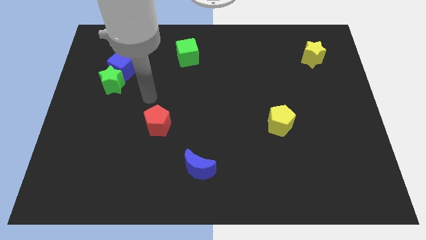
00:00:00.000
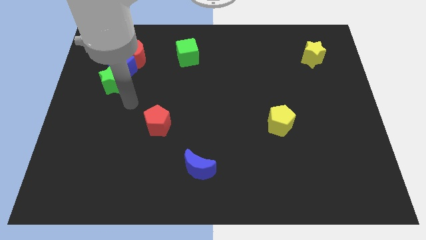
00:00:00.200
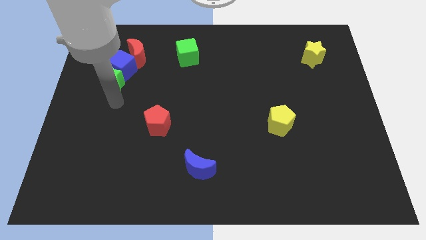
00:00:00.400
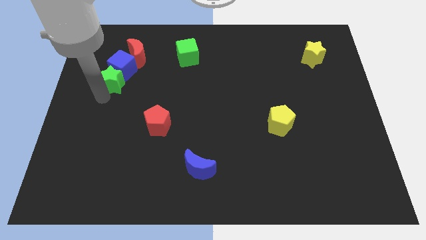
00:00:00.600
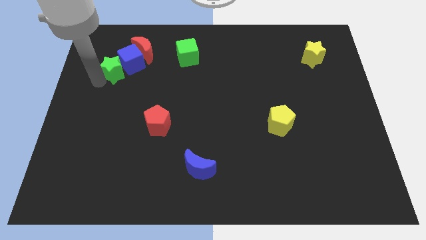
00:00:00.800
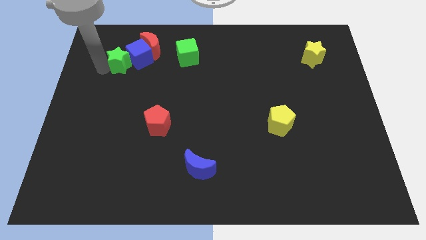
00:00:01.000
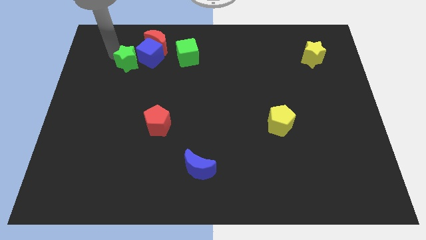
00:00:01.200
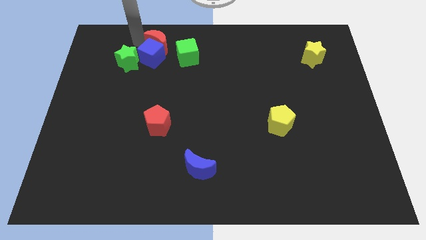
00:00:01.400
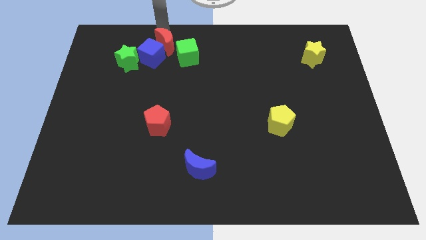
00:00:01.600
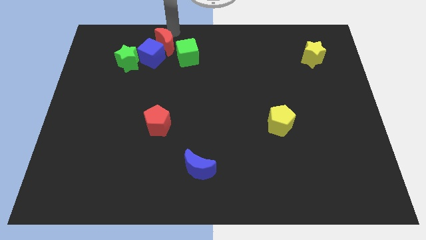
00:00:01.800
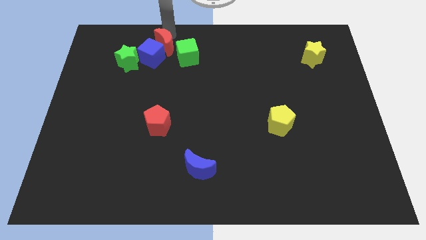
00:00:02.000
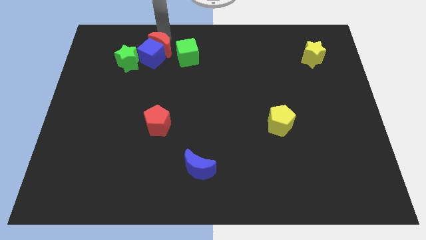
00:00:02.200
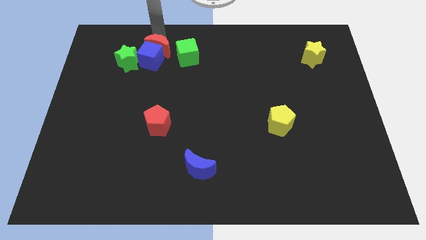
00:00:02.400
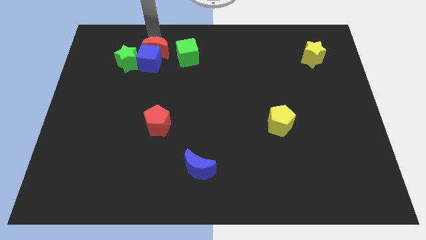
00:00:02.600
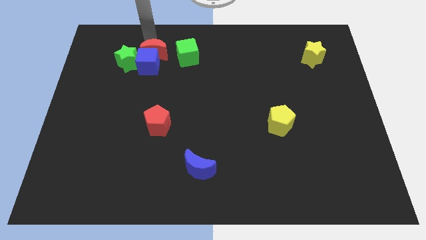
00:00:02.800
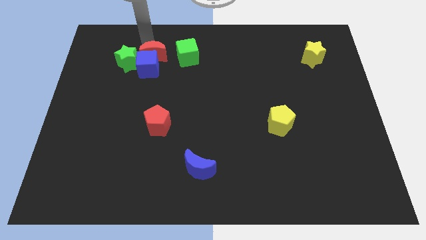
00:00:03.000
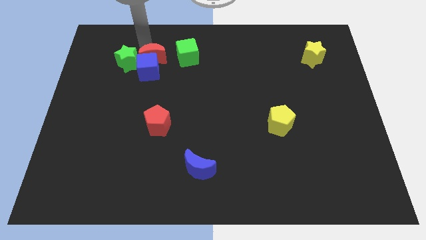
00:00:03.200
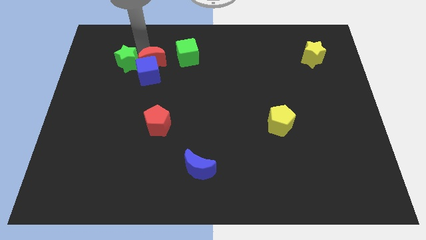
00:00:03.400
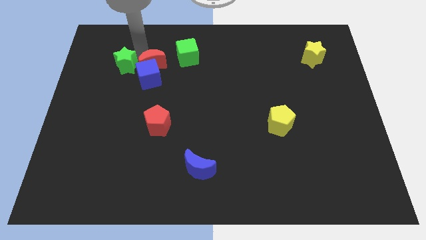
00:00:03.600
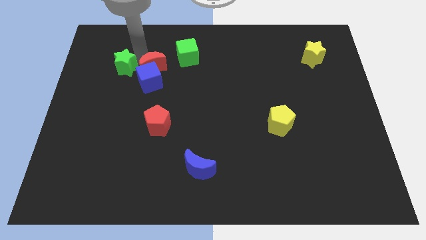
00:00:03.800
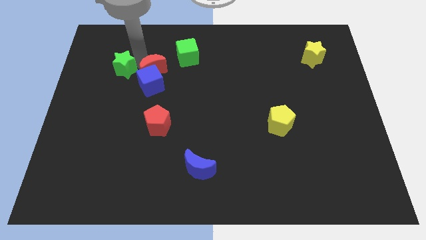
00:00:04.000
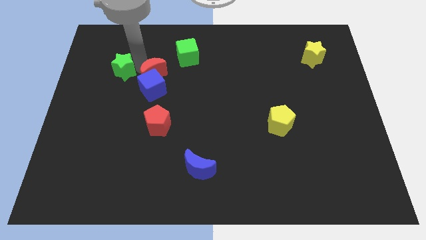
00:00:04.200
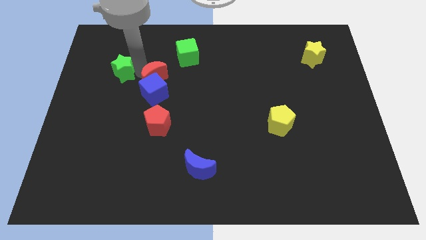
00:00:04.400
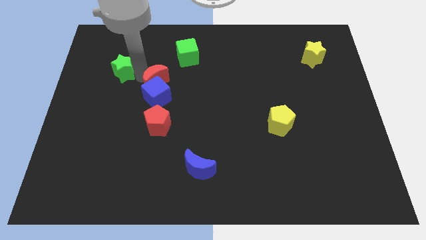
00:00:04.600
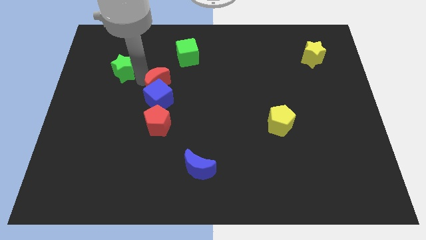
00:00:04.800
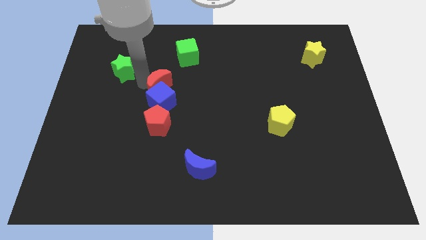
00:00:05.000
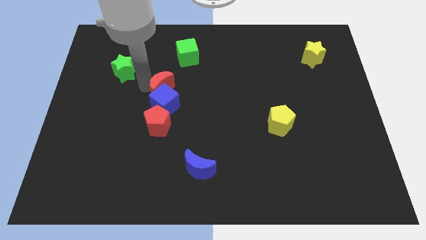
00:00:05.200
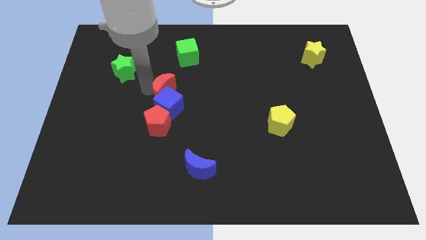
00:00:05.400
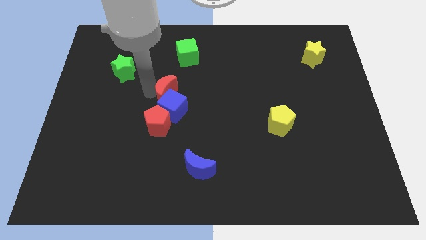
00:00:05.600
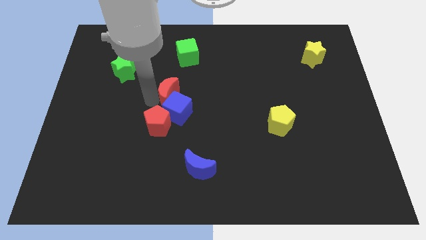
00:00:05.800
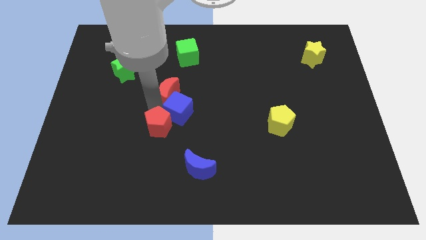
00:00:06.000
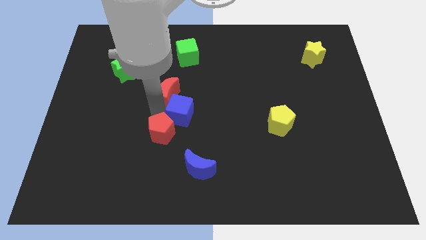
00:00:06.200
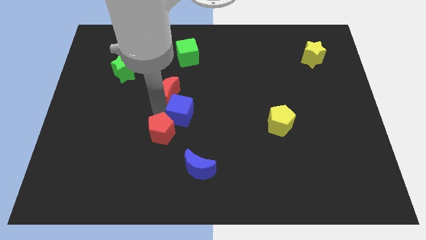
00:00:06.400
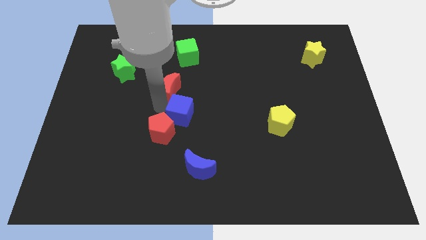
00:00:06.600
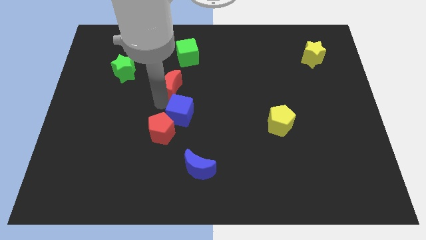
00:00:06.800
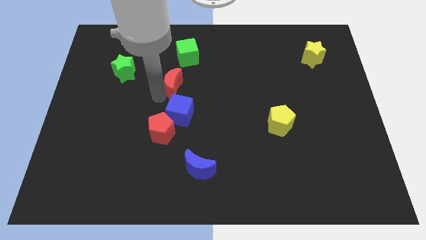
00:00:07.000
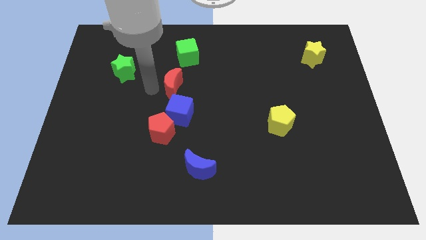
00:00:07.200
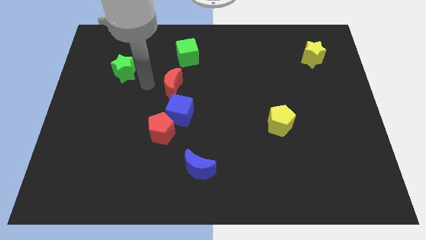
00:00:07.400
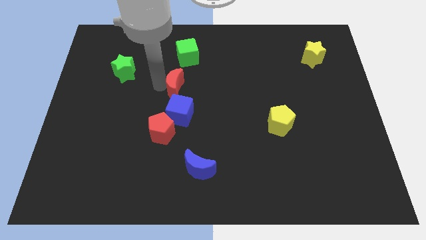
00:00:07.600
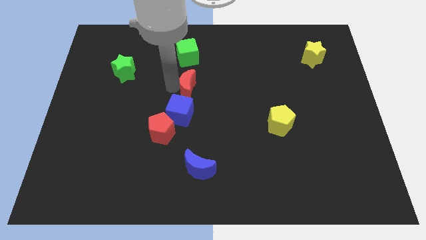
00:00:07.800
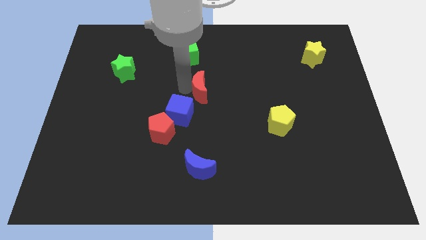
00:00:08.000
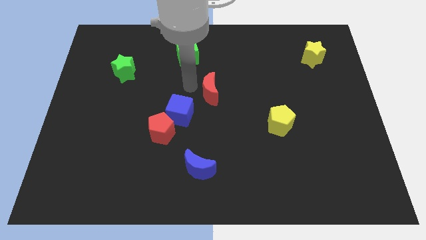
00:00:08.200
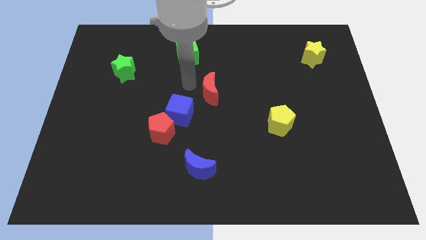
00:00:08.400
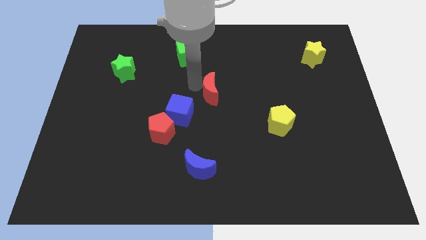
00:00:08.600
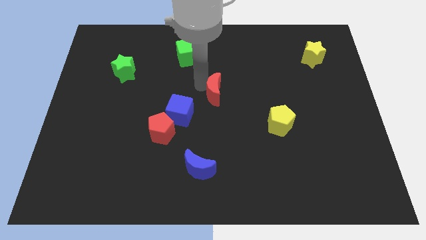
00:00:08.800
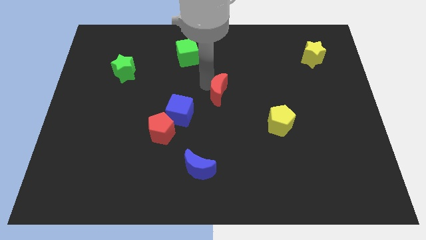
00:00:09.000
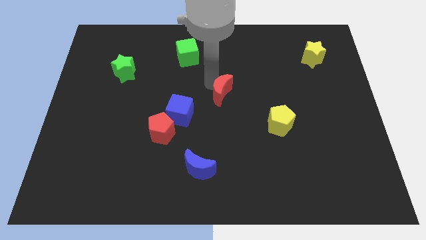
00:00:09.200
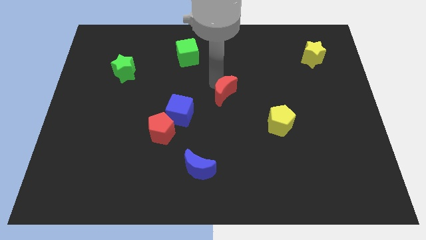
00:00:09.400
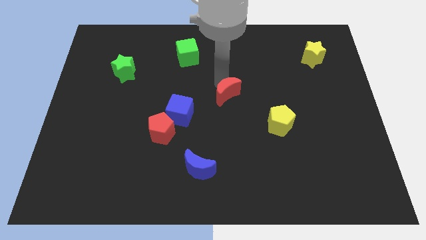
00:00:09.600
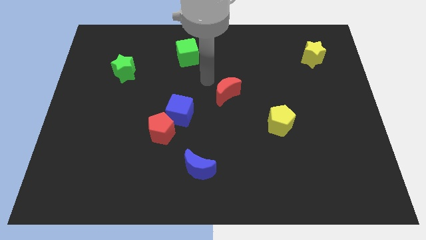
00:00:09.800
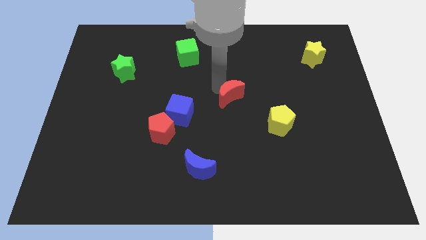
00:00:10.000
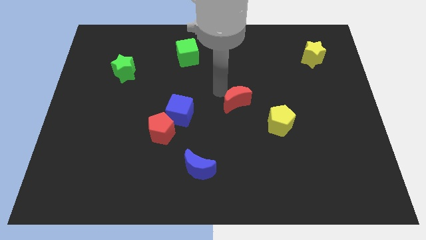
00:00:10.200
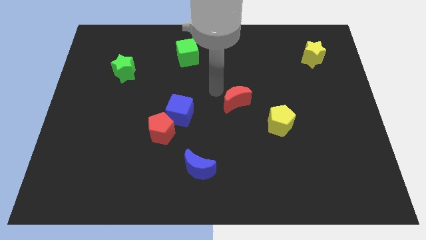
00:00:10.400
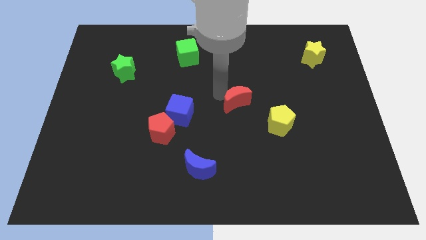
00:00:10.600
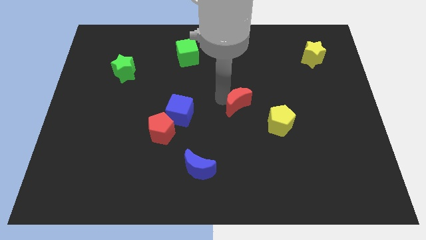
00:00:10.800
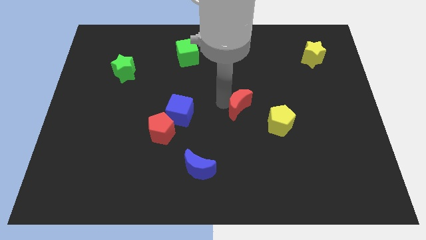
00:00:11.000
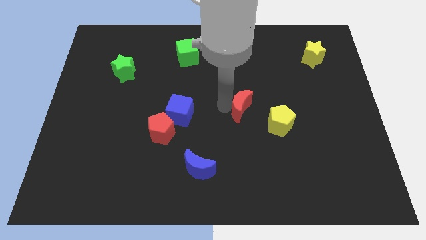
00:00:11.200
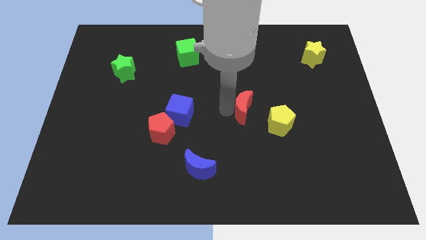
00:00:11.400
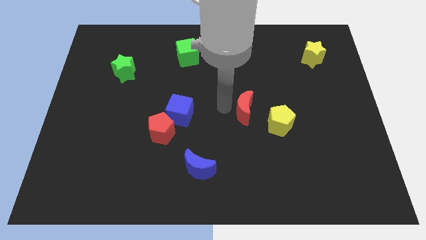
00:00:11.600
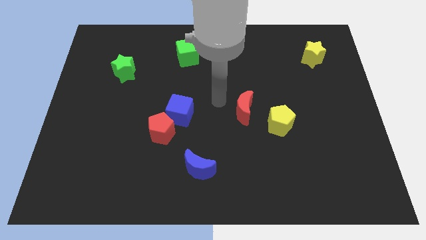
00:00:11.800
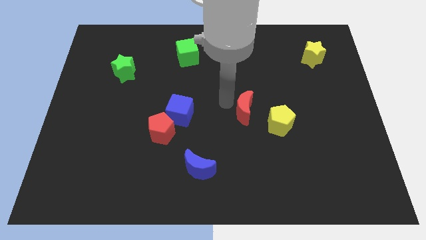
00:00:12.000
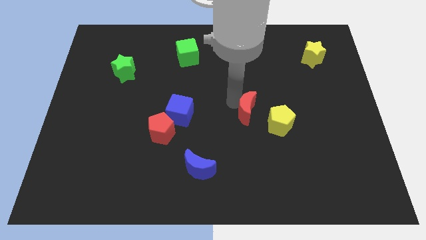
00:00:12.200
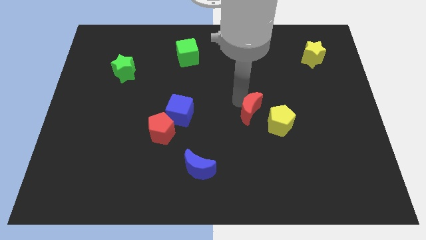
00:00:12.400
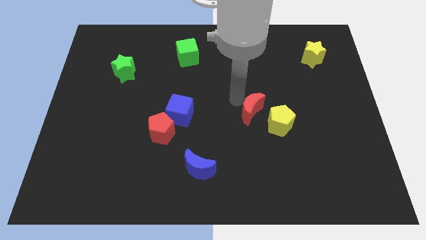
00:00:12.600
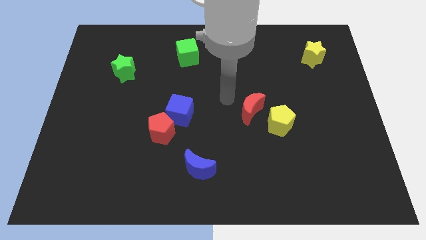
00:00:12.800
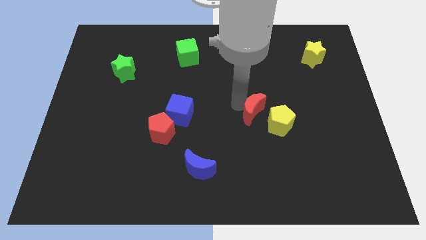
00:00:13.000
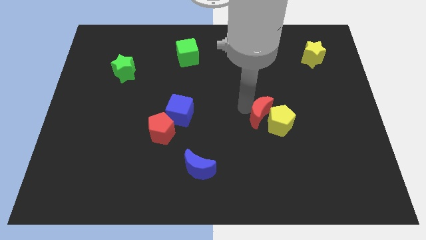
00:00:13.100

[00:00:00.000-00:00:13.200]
push the red moon to the yellow pentagon

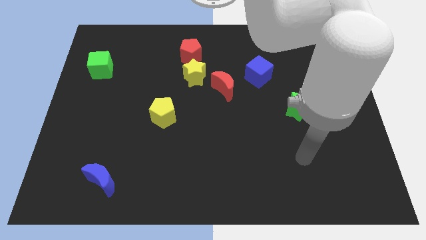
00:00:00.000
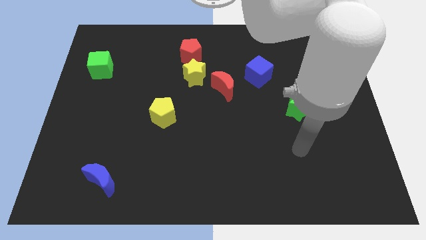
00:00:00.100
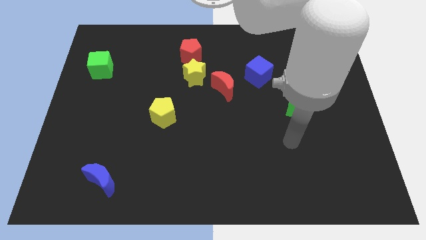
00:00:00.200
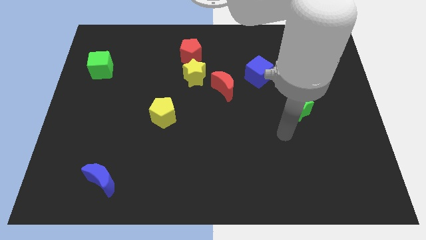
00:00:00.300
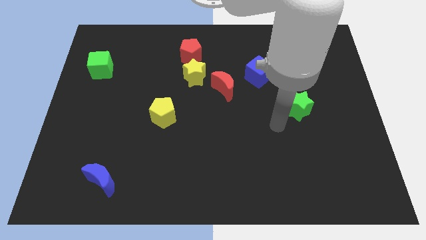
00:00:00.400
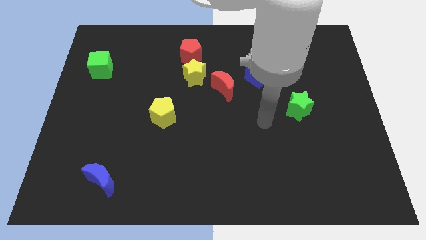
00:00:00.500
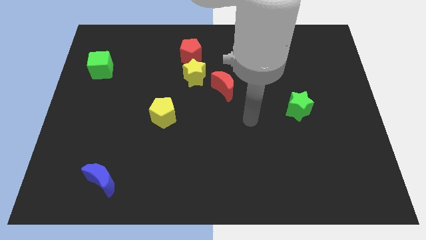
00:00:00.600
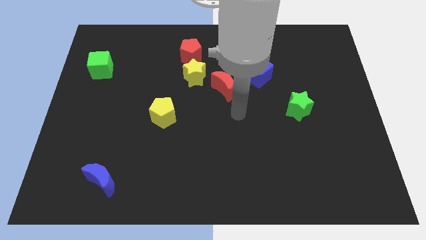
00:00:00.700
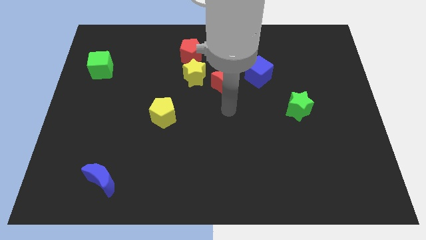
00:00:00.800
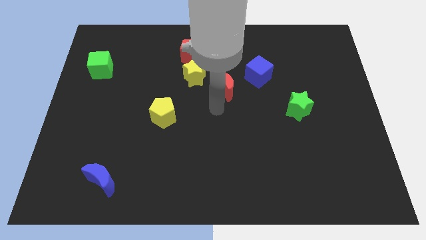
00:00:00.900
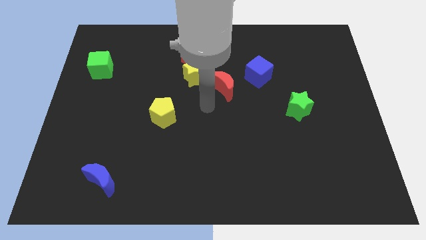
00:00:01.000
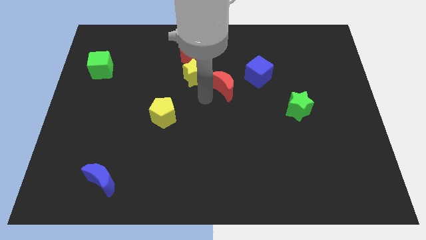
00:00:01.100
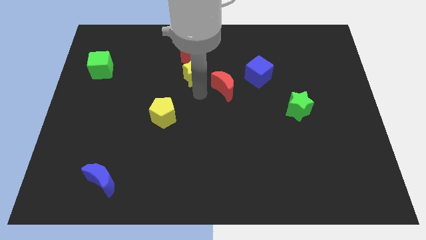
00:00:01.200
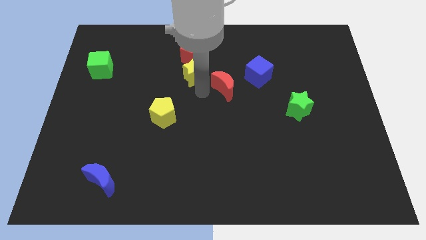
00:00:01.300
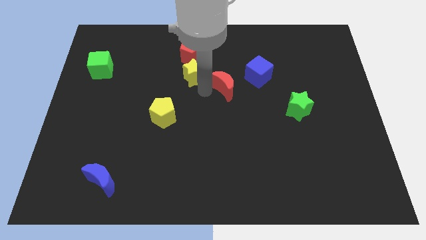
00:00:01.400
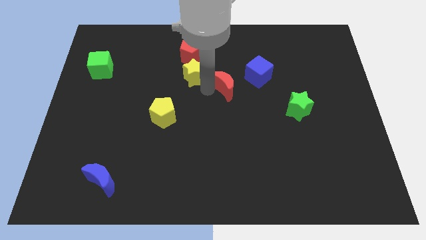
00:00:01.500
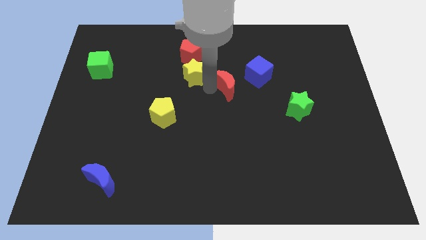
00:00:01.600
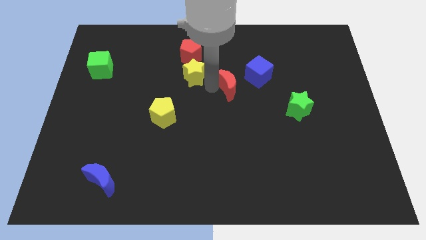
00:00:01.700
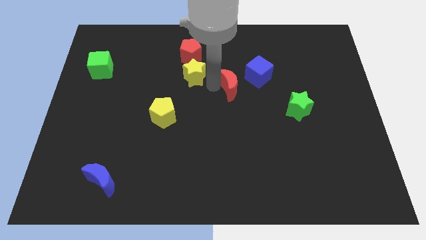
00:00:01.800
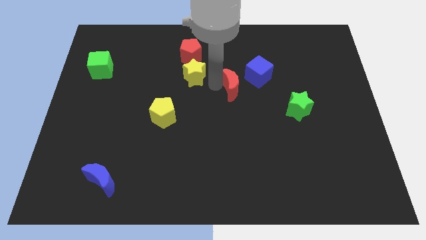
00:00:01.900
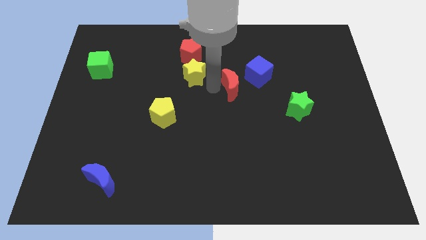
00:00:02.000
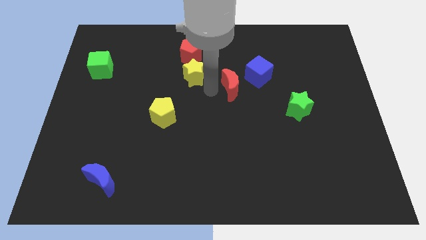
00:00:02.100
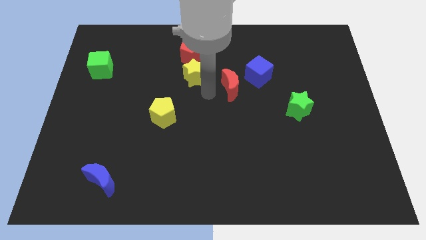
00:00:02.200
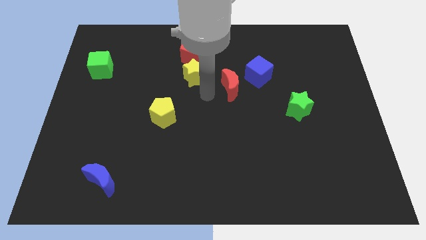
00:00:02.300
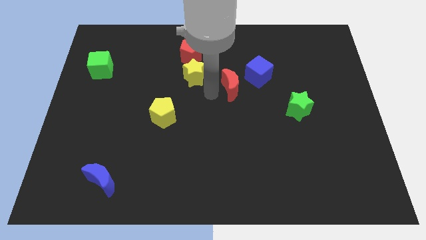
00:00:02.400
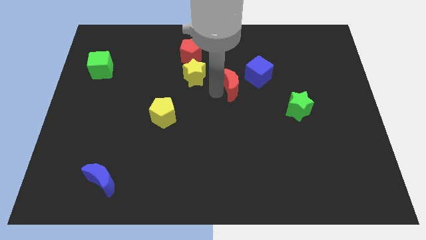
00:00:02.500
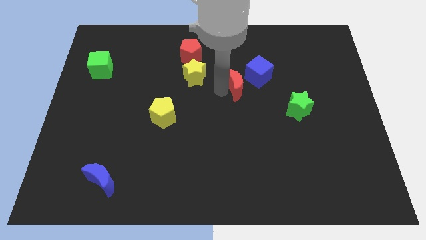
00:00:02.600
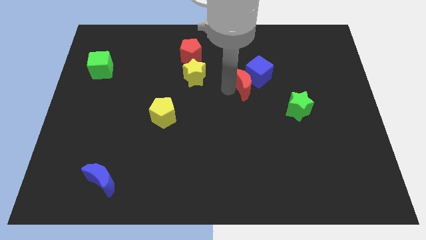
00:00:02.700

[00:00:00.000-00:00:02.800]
put the red moon close to the blue cube
